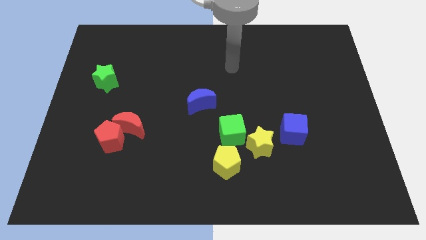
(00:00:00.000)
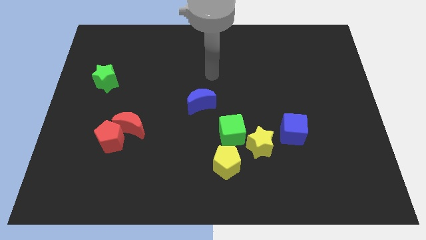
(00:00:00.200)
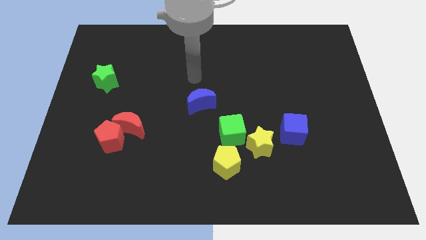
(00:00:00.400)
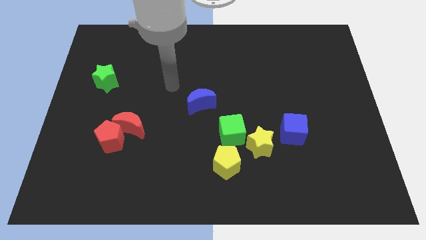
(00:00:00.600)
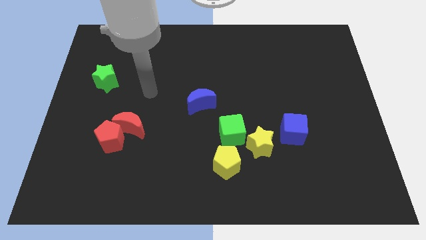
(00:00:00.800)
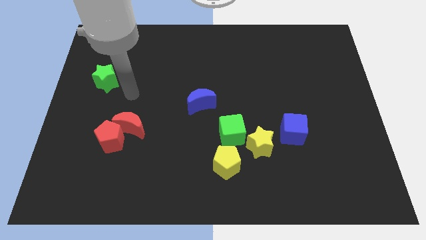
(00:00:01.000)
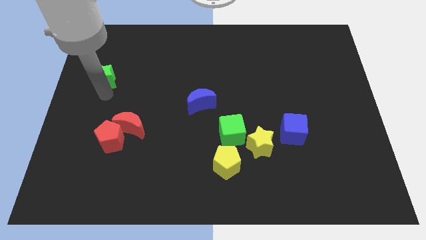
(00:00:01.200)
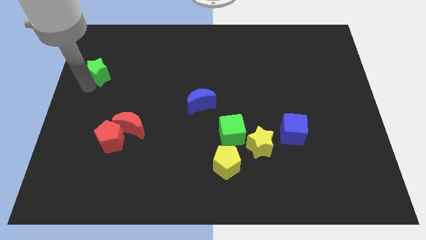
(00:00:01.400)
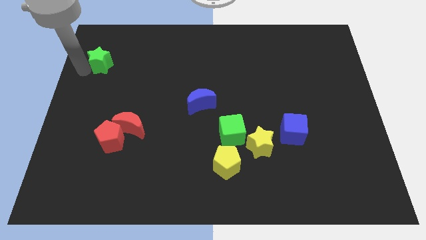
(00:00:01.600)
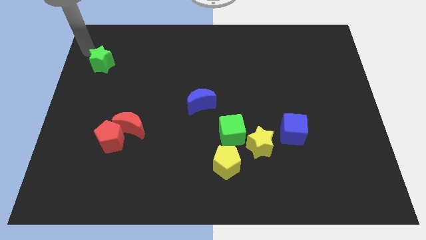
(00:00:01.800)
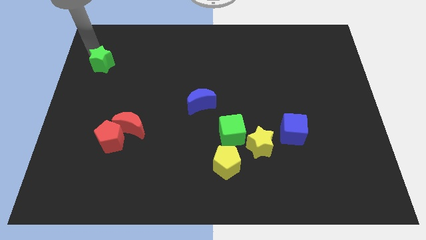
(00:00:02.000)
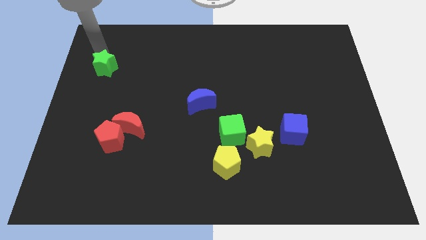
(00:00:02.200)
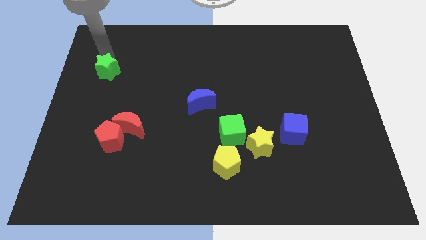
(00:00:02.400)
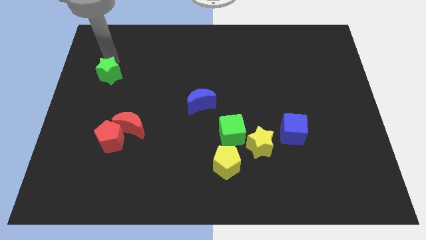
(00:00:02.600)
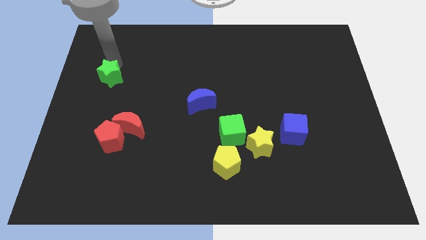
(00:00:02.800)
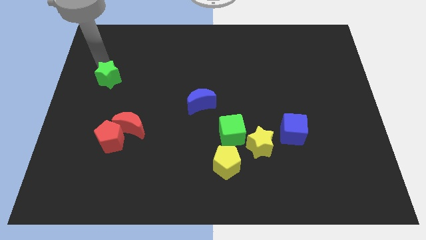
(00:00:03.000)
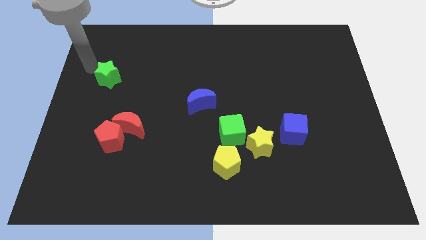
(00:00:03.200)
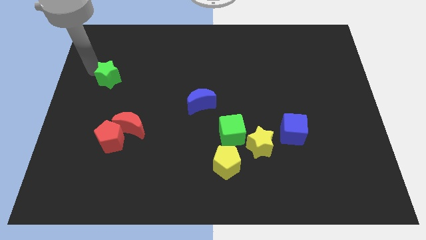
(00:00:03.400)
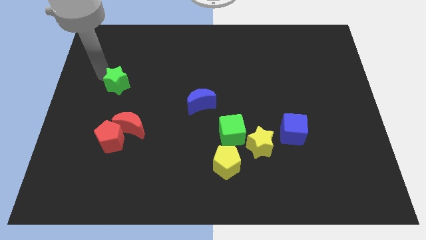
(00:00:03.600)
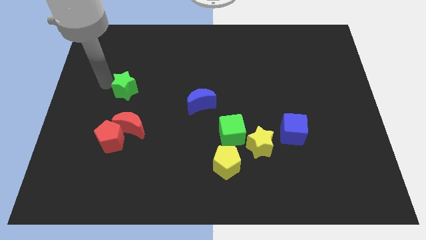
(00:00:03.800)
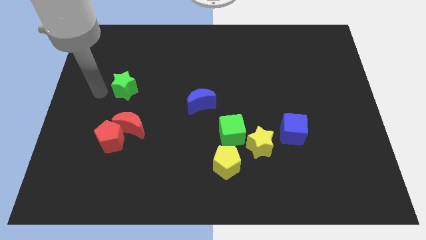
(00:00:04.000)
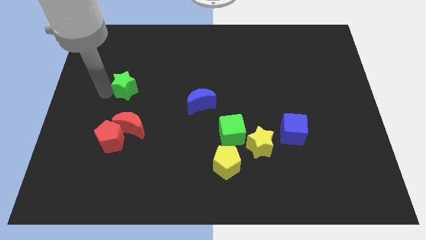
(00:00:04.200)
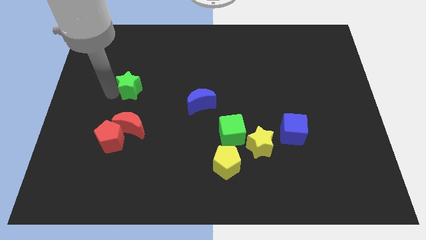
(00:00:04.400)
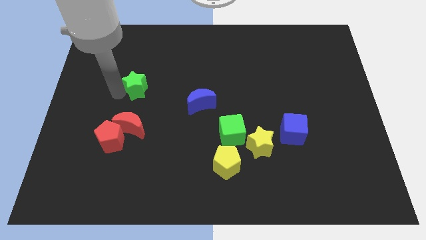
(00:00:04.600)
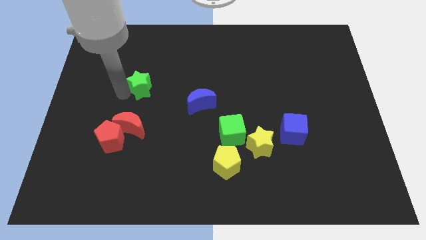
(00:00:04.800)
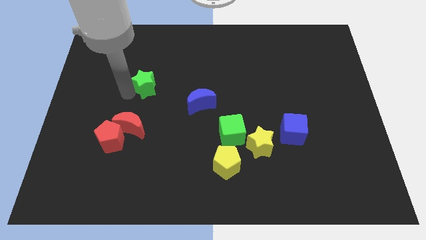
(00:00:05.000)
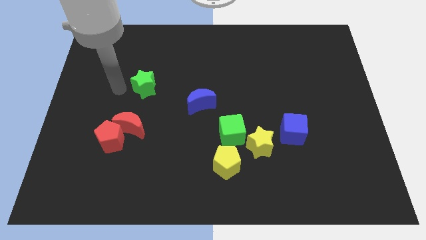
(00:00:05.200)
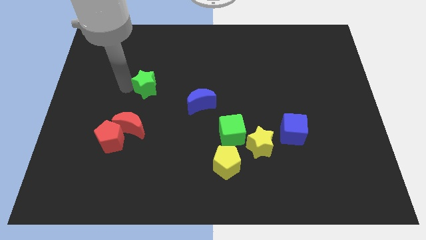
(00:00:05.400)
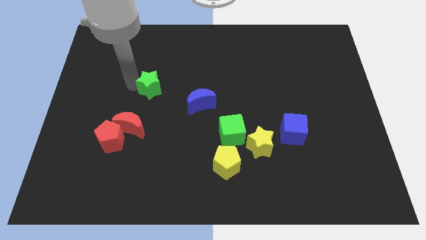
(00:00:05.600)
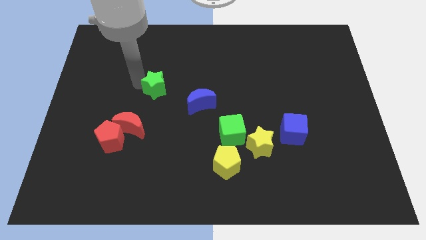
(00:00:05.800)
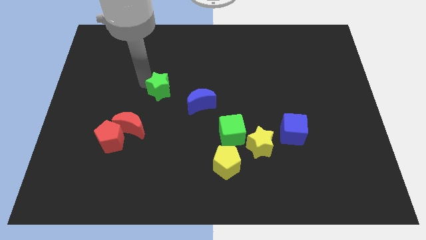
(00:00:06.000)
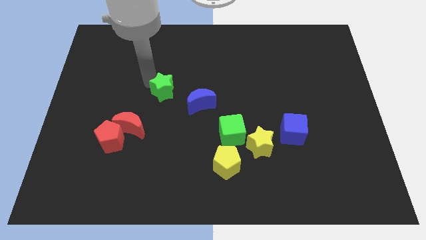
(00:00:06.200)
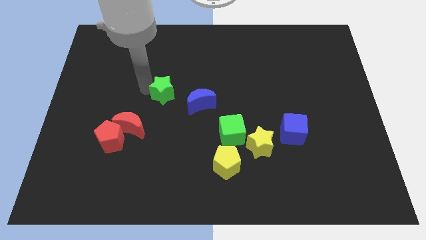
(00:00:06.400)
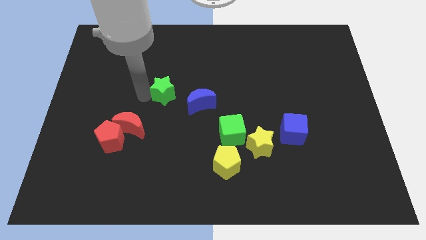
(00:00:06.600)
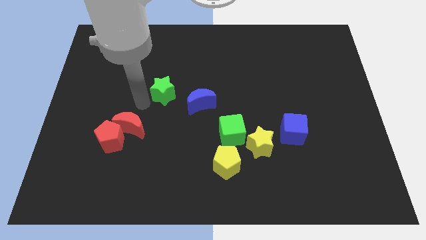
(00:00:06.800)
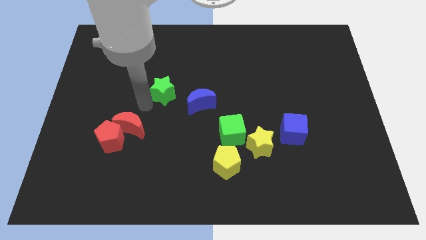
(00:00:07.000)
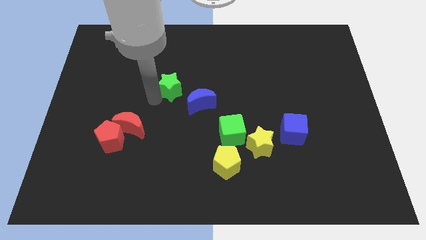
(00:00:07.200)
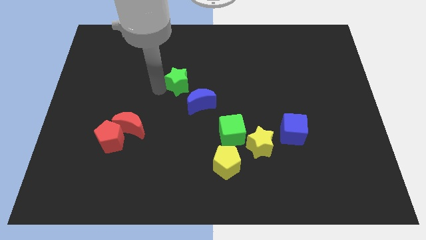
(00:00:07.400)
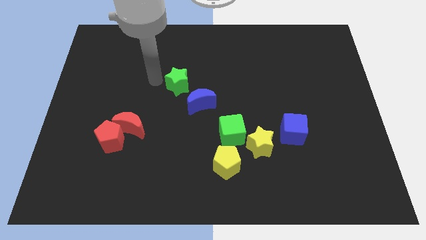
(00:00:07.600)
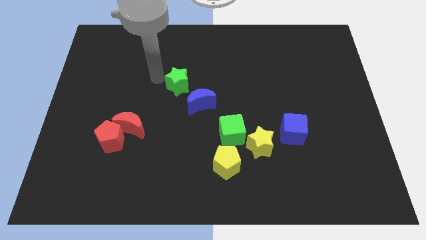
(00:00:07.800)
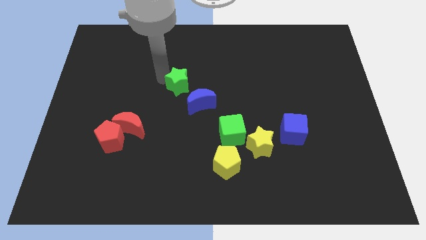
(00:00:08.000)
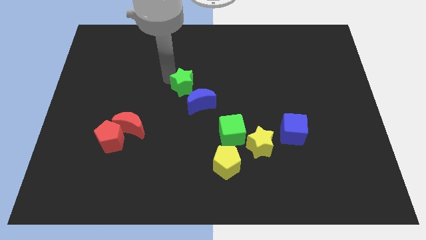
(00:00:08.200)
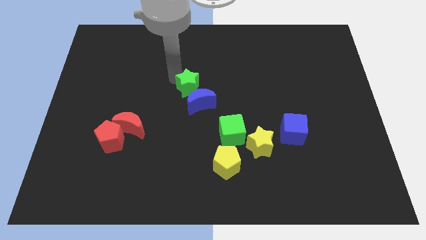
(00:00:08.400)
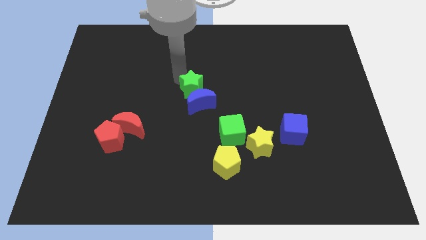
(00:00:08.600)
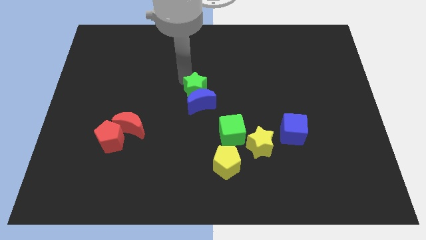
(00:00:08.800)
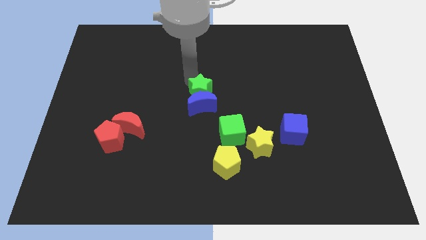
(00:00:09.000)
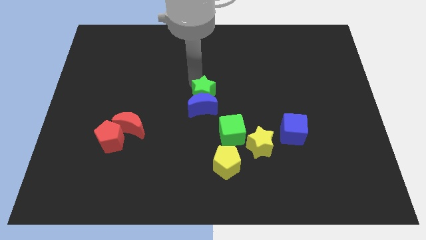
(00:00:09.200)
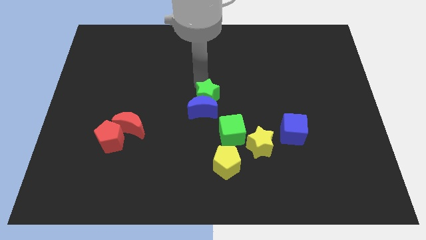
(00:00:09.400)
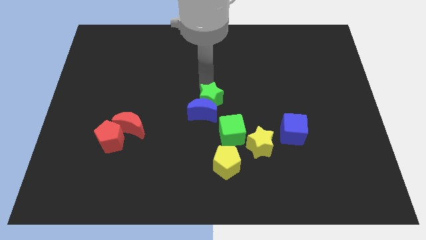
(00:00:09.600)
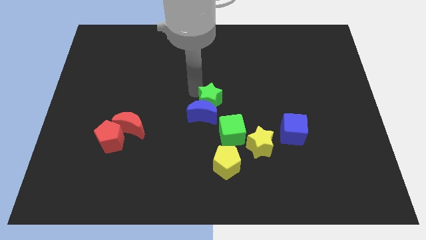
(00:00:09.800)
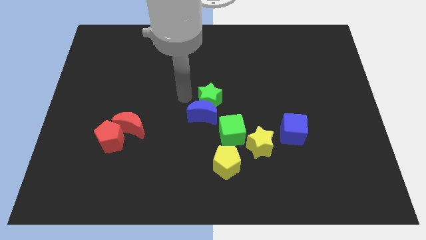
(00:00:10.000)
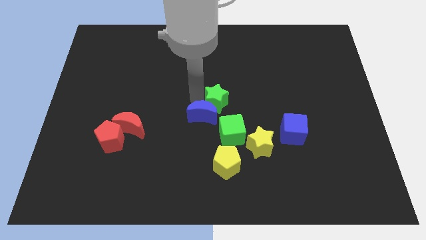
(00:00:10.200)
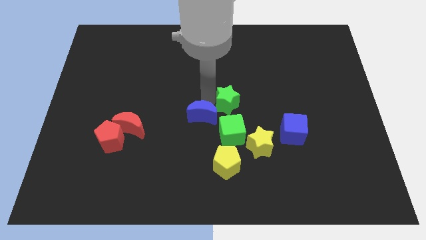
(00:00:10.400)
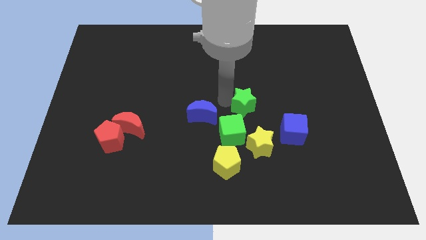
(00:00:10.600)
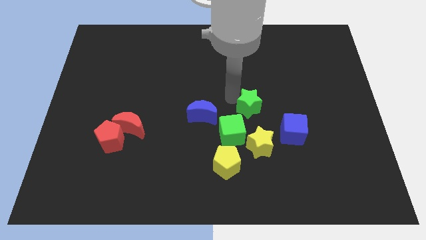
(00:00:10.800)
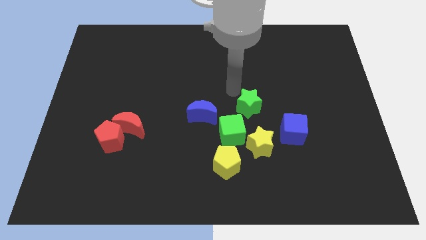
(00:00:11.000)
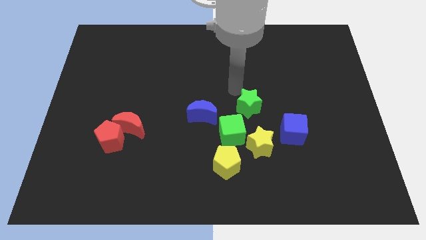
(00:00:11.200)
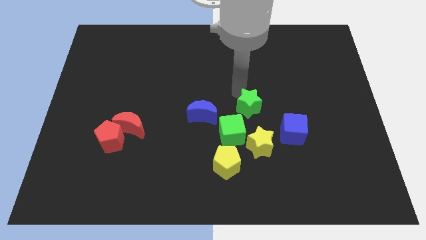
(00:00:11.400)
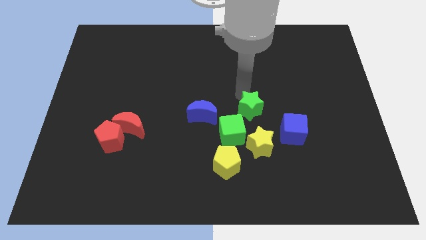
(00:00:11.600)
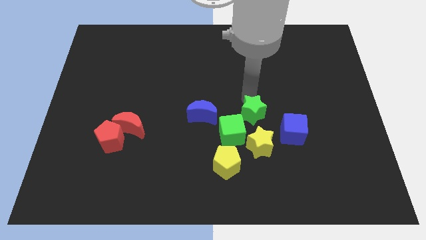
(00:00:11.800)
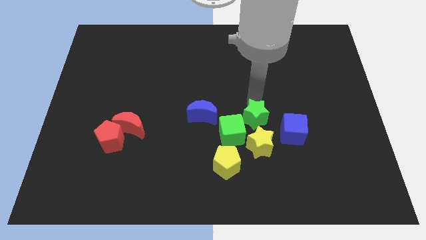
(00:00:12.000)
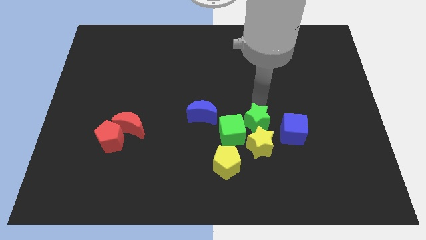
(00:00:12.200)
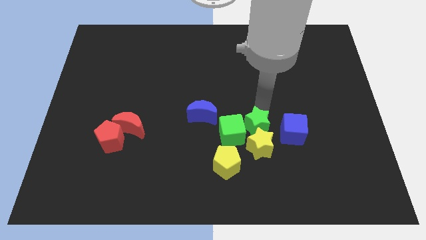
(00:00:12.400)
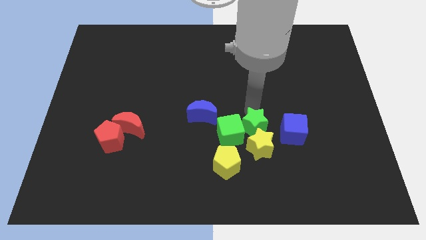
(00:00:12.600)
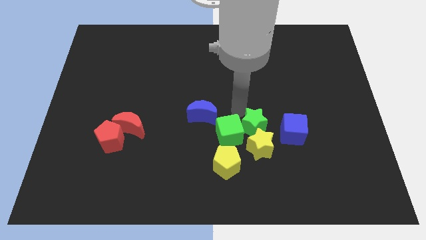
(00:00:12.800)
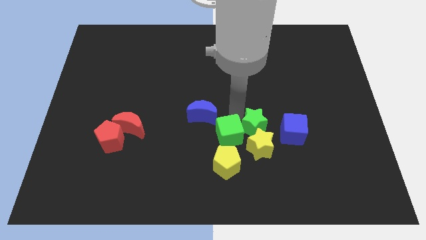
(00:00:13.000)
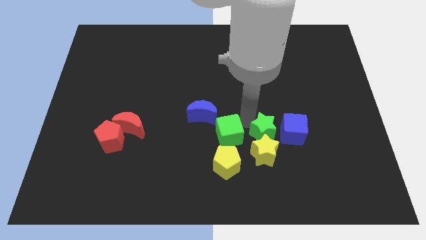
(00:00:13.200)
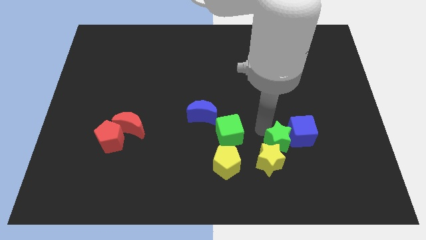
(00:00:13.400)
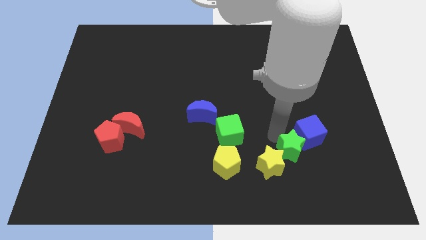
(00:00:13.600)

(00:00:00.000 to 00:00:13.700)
slide the green star to the bottom of the blue cube

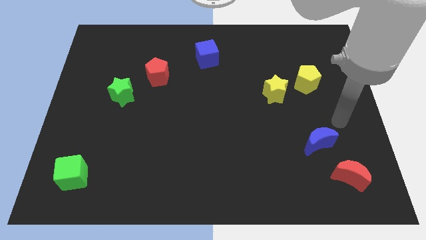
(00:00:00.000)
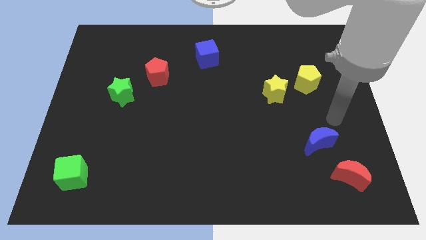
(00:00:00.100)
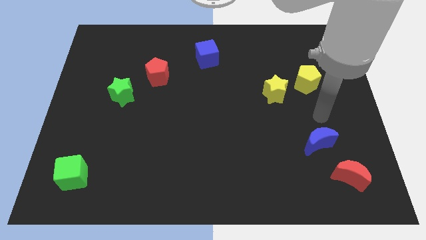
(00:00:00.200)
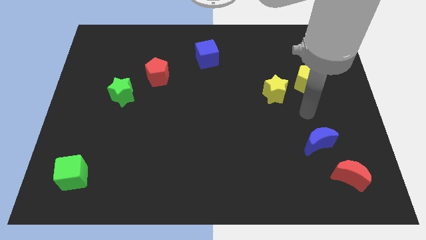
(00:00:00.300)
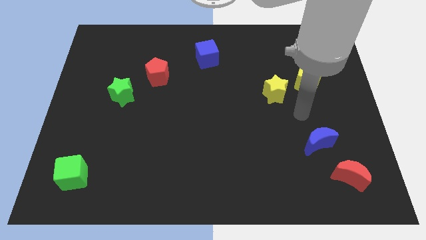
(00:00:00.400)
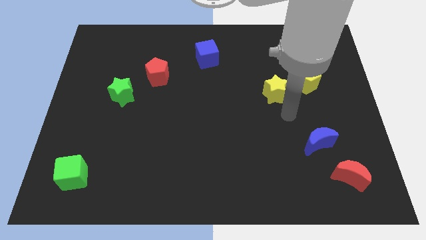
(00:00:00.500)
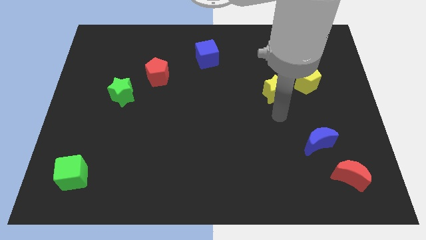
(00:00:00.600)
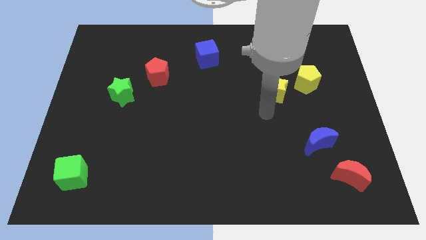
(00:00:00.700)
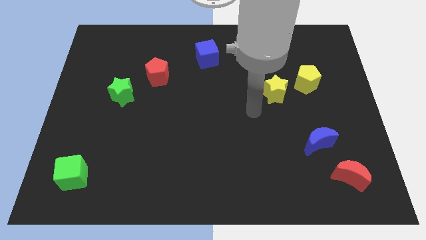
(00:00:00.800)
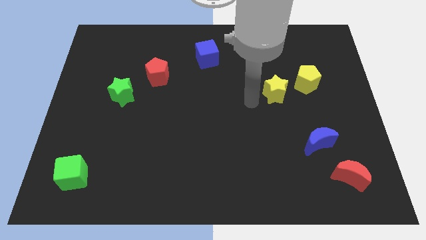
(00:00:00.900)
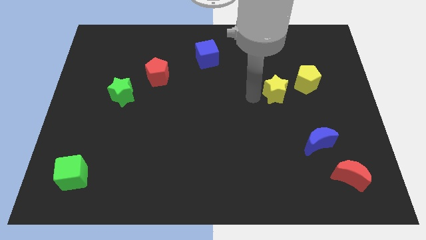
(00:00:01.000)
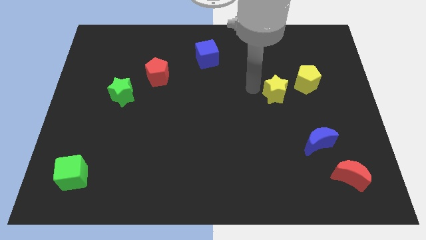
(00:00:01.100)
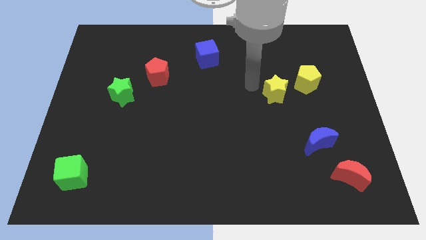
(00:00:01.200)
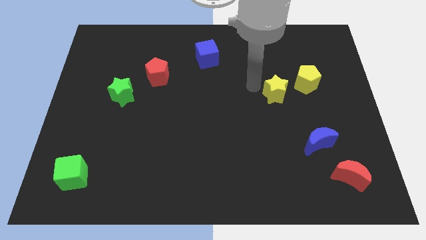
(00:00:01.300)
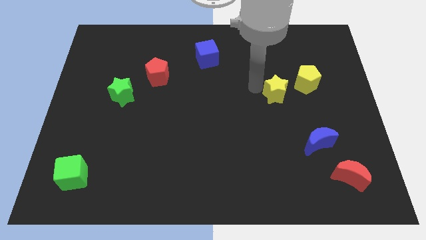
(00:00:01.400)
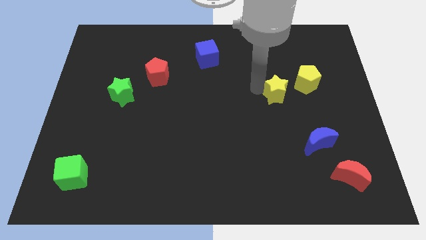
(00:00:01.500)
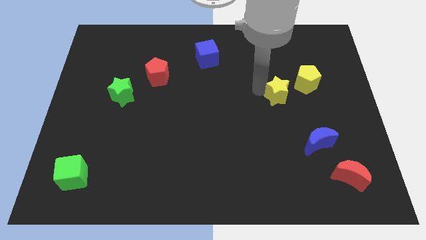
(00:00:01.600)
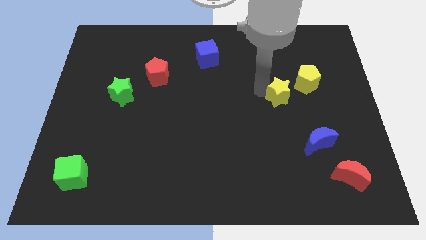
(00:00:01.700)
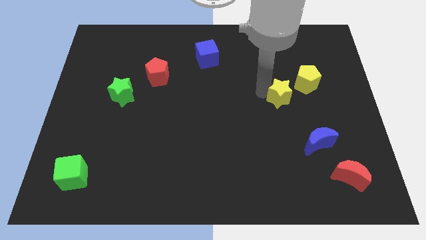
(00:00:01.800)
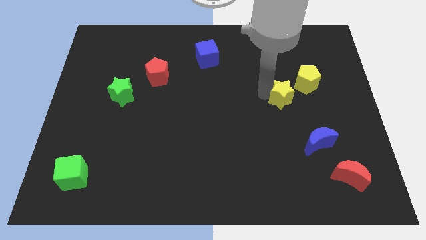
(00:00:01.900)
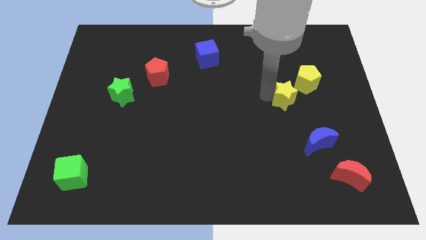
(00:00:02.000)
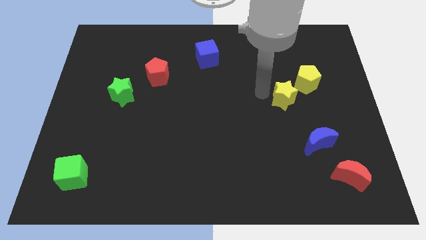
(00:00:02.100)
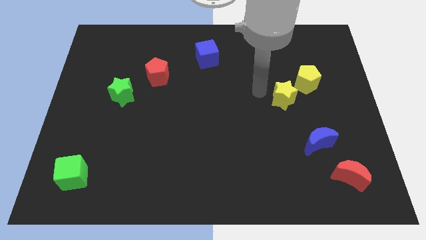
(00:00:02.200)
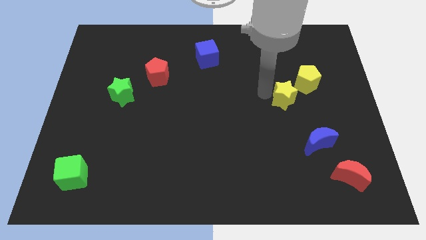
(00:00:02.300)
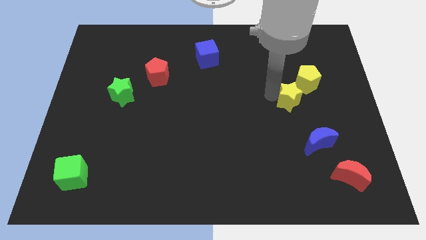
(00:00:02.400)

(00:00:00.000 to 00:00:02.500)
slide the yellow star to the top of the blue moon
